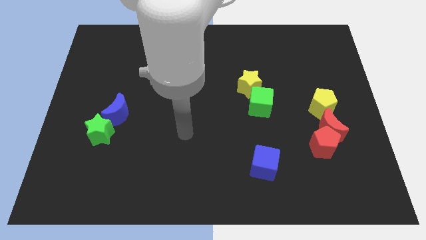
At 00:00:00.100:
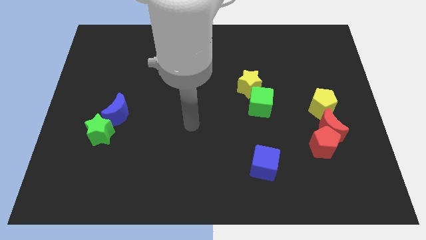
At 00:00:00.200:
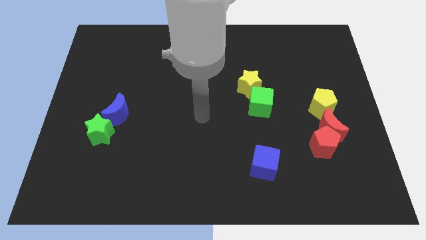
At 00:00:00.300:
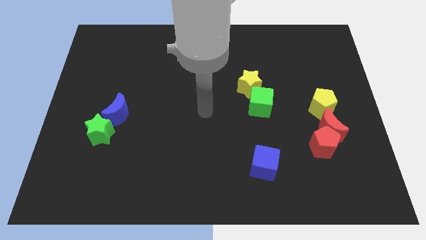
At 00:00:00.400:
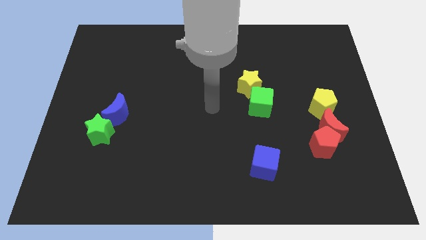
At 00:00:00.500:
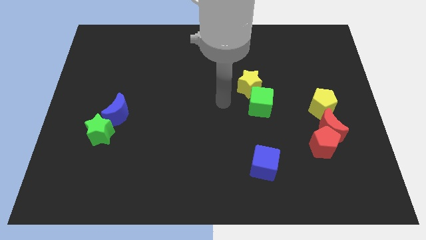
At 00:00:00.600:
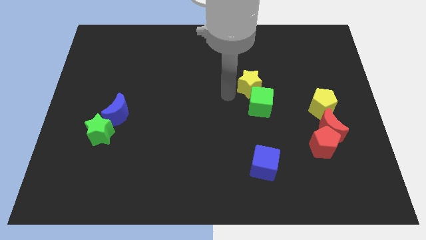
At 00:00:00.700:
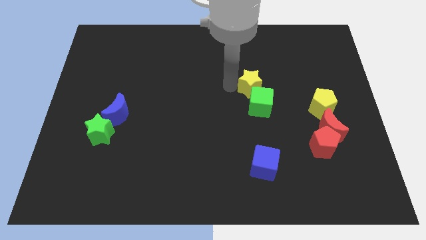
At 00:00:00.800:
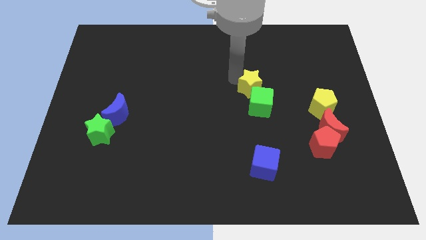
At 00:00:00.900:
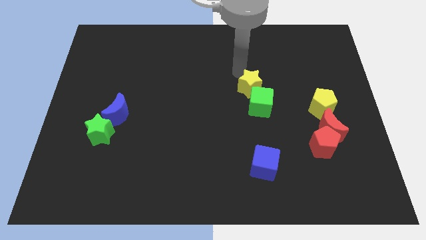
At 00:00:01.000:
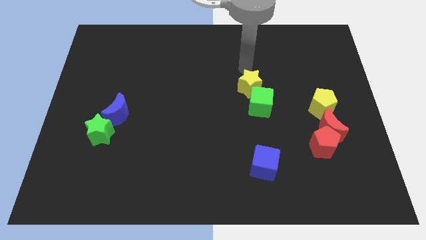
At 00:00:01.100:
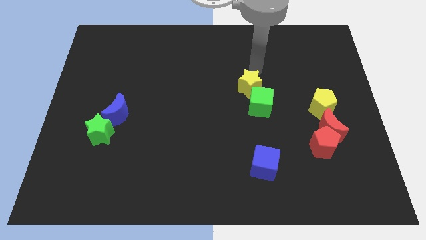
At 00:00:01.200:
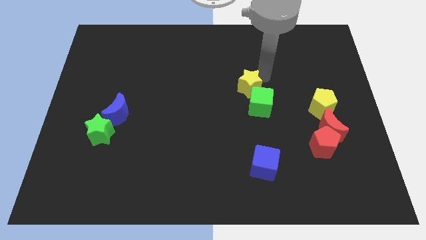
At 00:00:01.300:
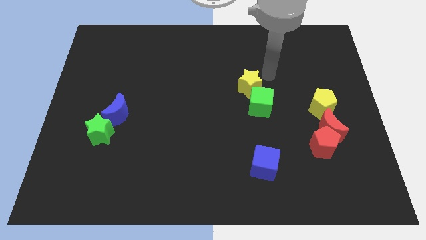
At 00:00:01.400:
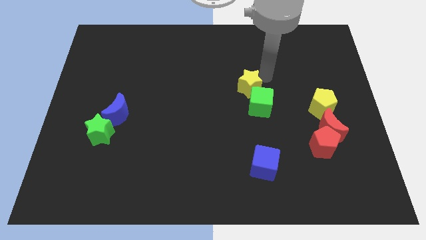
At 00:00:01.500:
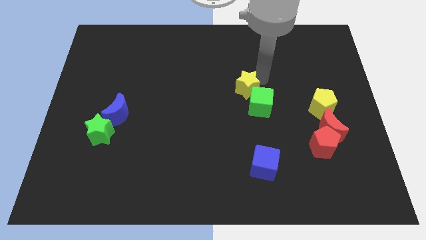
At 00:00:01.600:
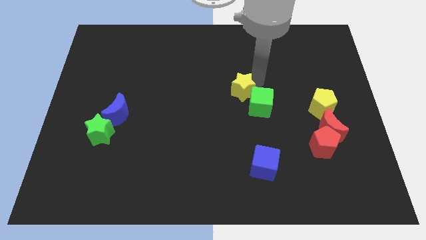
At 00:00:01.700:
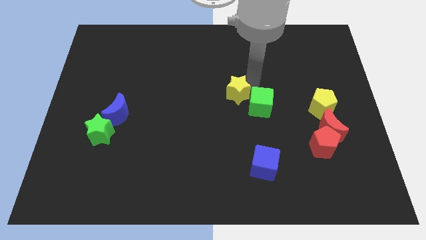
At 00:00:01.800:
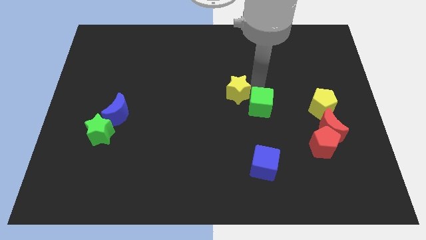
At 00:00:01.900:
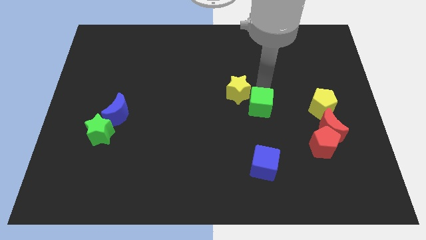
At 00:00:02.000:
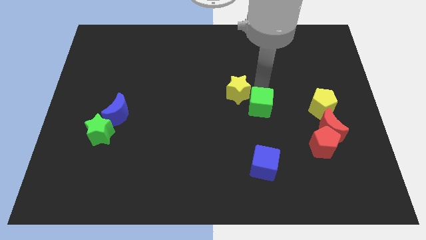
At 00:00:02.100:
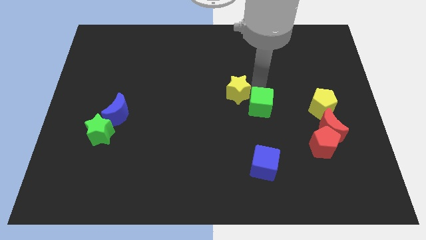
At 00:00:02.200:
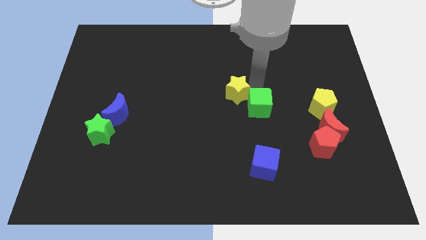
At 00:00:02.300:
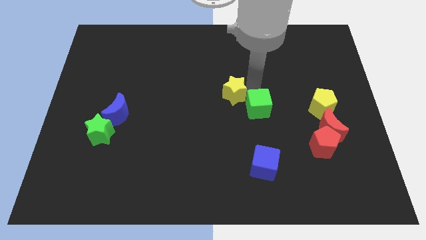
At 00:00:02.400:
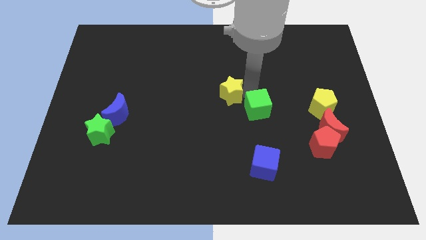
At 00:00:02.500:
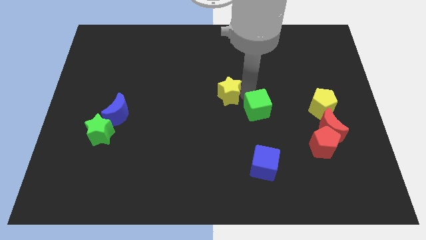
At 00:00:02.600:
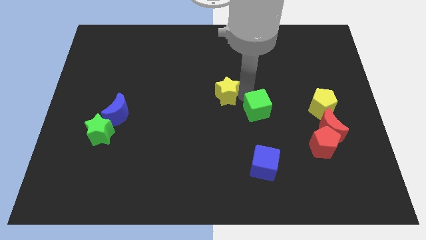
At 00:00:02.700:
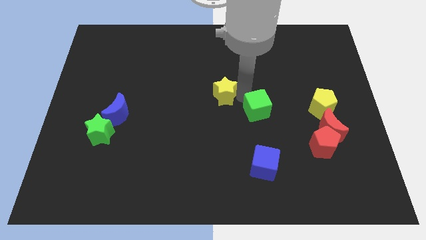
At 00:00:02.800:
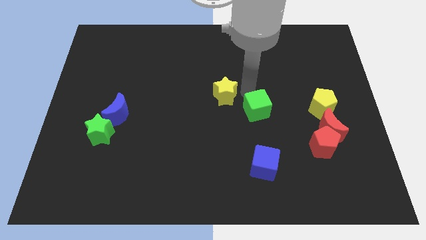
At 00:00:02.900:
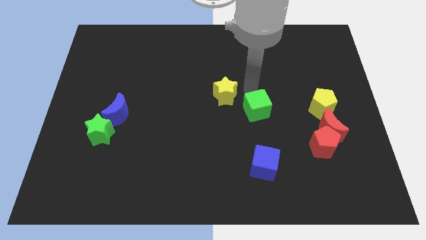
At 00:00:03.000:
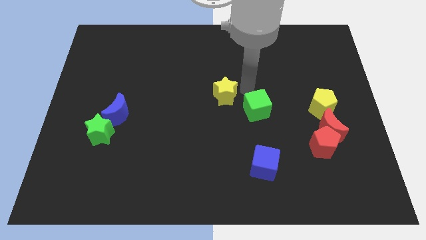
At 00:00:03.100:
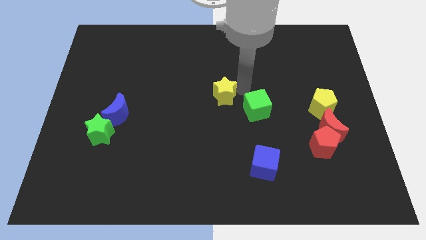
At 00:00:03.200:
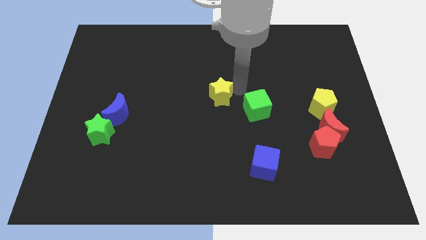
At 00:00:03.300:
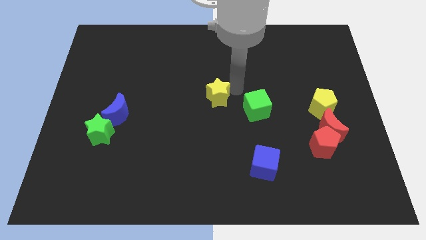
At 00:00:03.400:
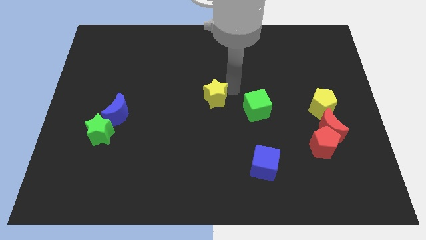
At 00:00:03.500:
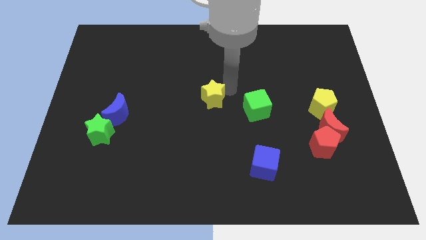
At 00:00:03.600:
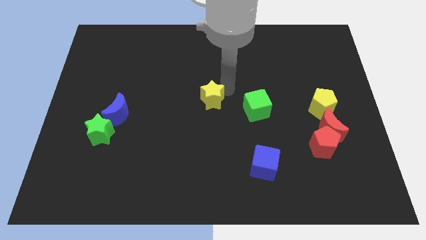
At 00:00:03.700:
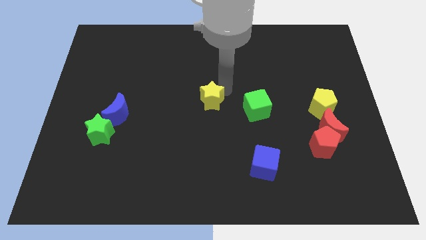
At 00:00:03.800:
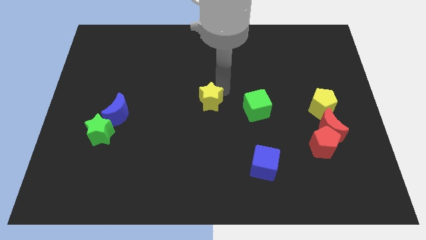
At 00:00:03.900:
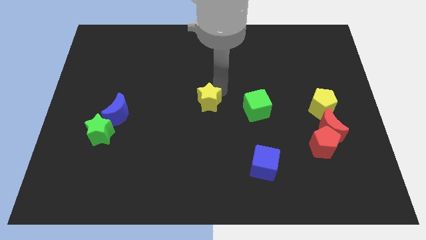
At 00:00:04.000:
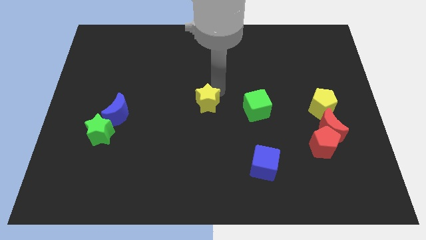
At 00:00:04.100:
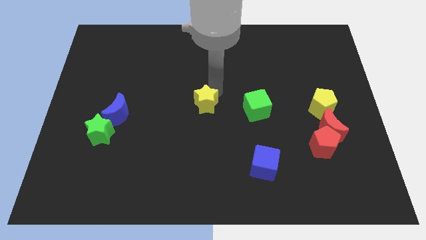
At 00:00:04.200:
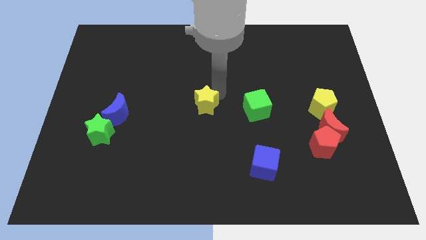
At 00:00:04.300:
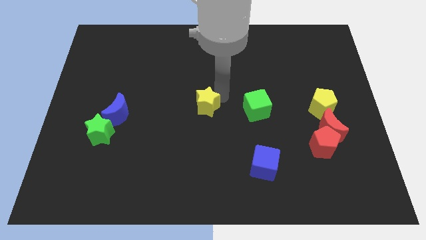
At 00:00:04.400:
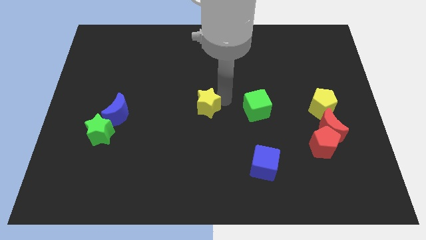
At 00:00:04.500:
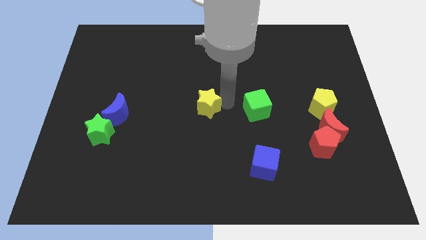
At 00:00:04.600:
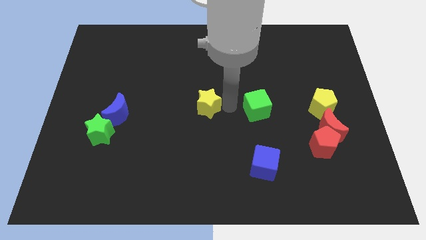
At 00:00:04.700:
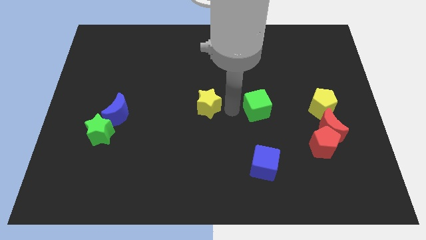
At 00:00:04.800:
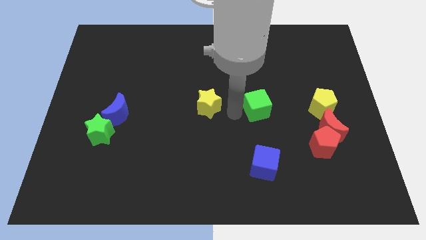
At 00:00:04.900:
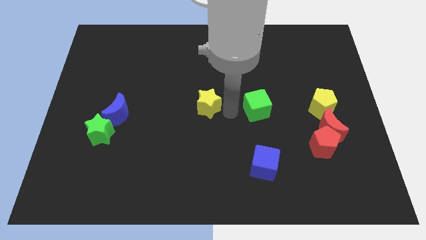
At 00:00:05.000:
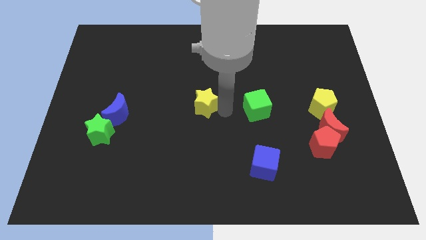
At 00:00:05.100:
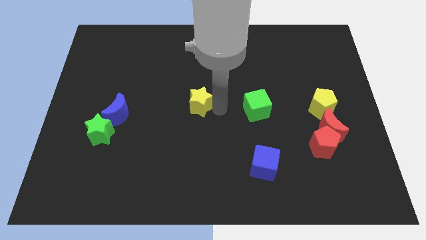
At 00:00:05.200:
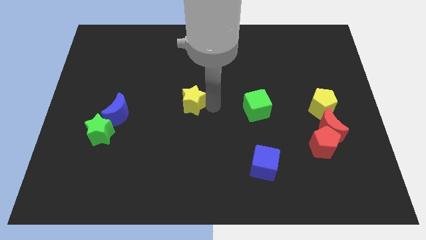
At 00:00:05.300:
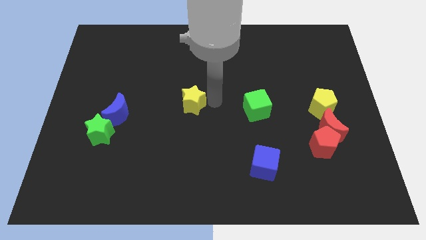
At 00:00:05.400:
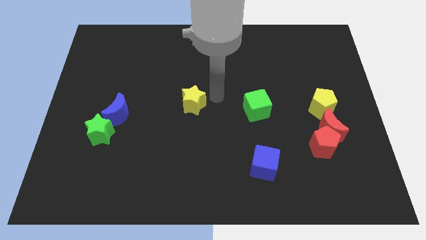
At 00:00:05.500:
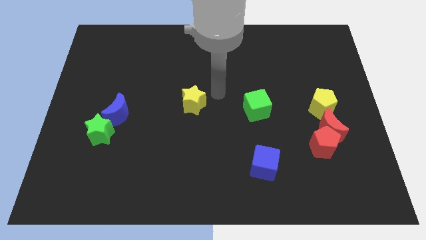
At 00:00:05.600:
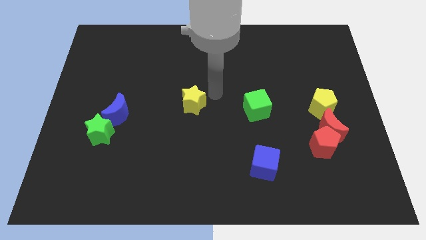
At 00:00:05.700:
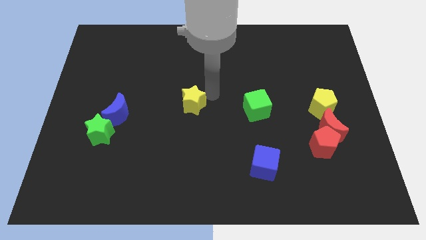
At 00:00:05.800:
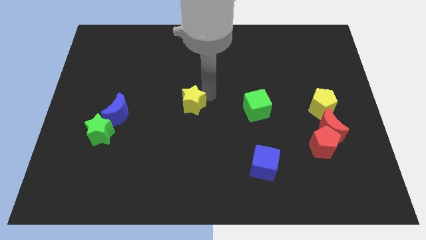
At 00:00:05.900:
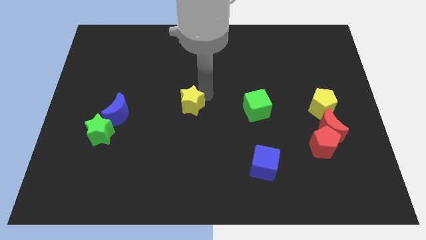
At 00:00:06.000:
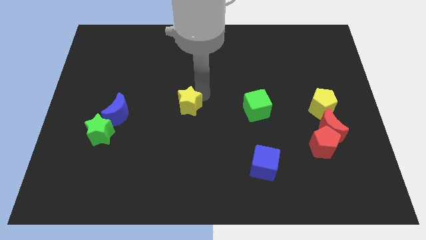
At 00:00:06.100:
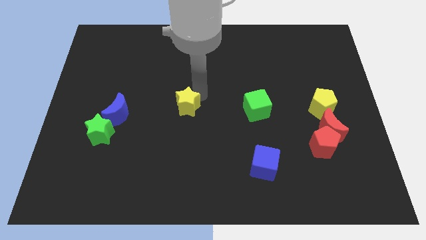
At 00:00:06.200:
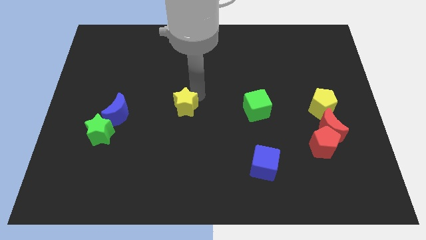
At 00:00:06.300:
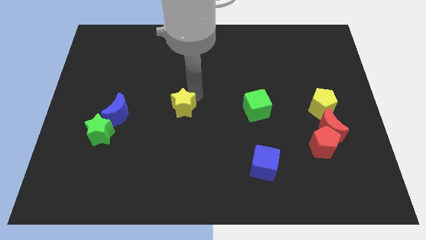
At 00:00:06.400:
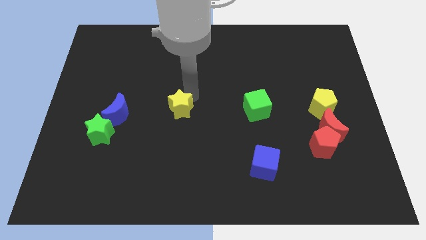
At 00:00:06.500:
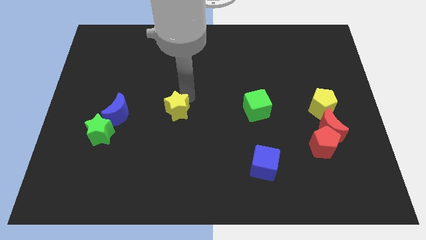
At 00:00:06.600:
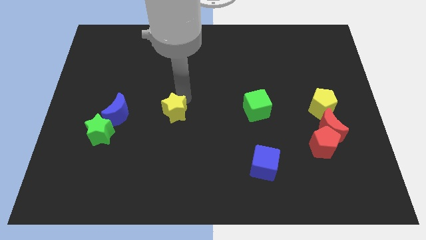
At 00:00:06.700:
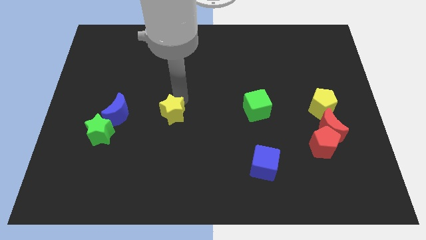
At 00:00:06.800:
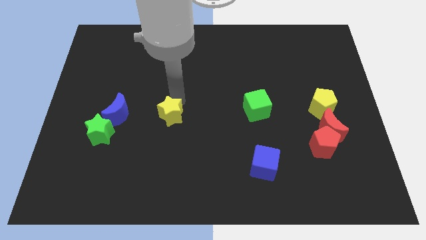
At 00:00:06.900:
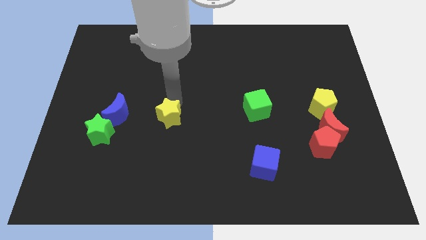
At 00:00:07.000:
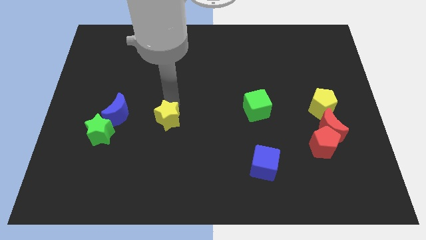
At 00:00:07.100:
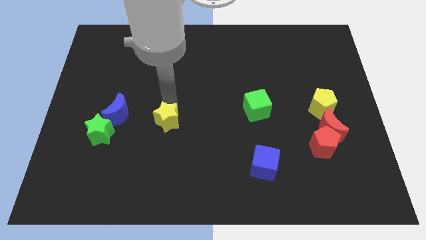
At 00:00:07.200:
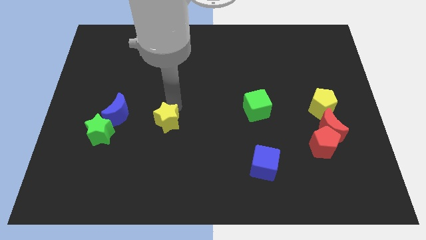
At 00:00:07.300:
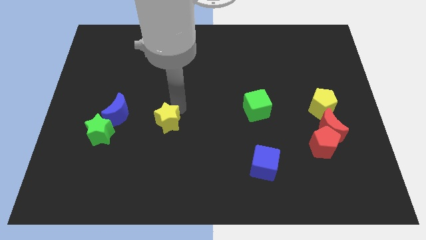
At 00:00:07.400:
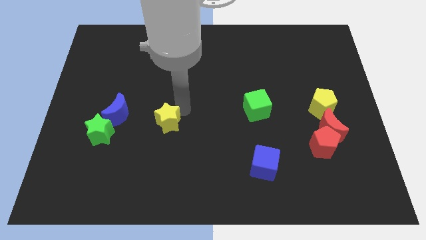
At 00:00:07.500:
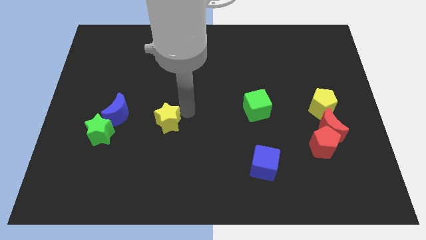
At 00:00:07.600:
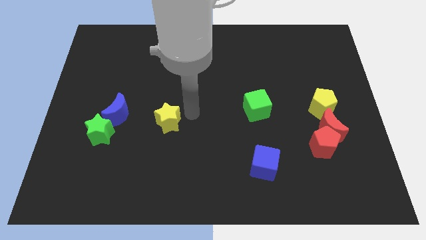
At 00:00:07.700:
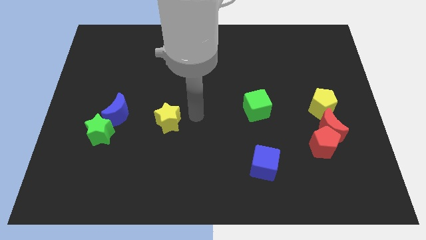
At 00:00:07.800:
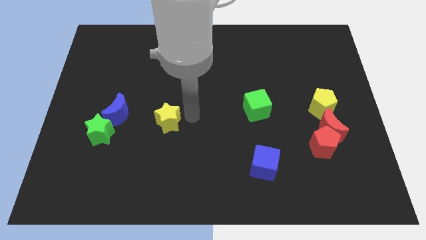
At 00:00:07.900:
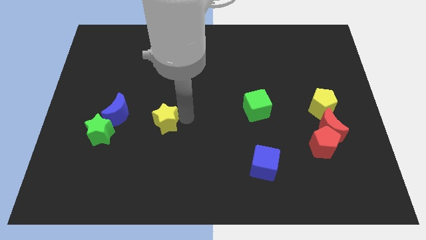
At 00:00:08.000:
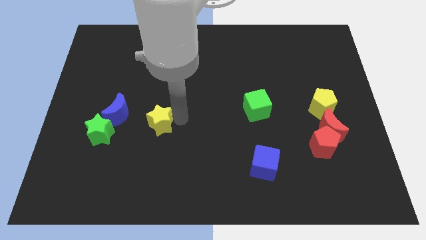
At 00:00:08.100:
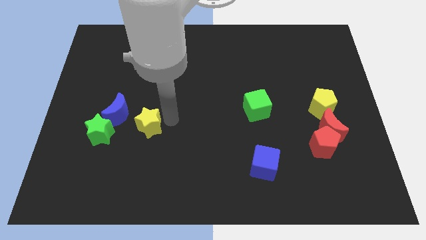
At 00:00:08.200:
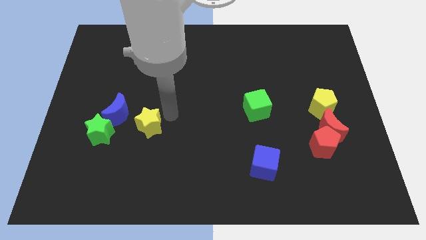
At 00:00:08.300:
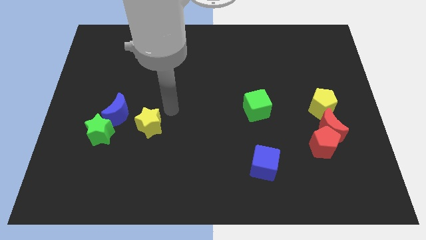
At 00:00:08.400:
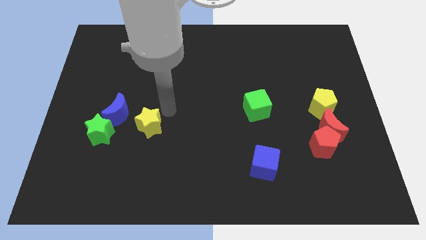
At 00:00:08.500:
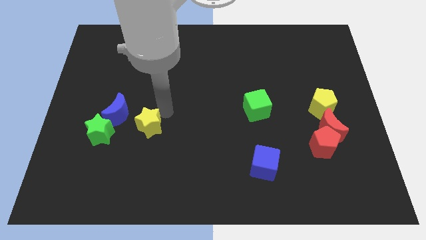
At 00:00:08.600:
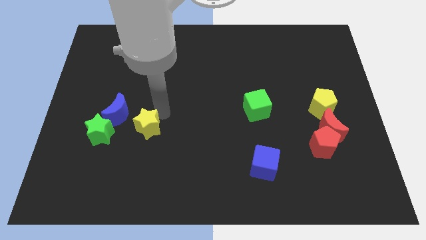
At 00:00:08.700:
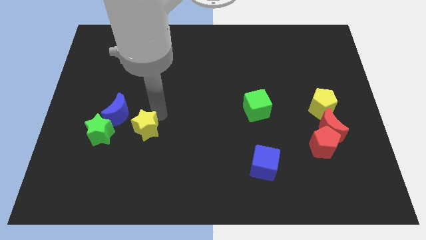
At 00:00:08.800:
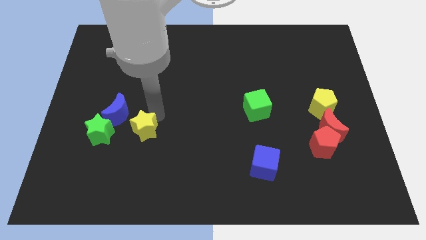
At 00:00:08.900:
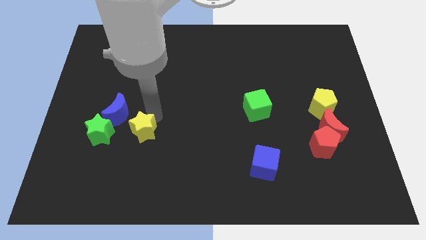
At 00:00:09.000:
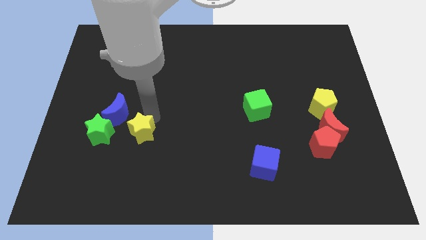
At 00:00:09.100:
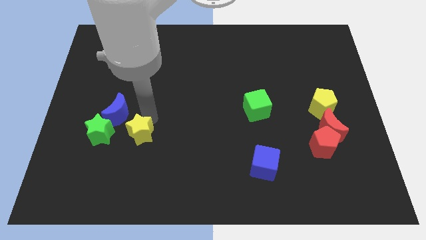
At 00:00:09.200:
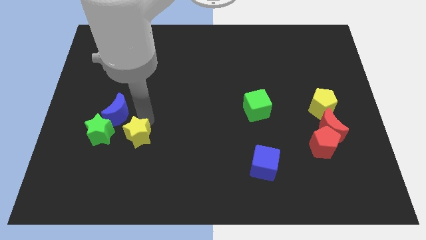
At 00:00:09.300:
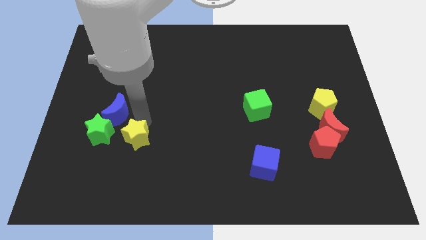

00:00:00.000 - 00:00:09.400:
slide the yellow star to the bottom of the blue moon
